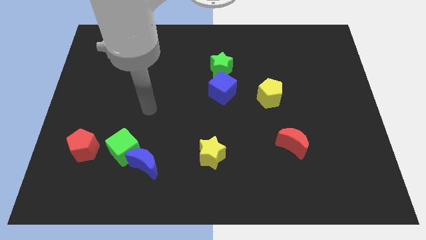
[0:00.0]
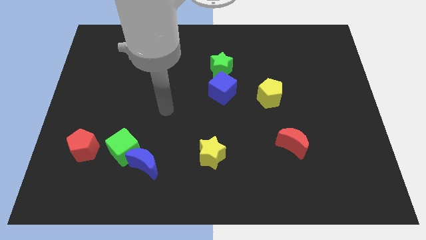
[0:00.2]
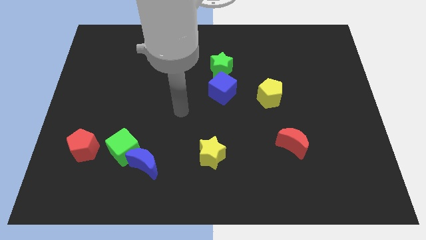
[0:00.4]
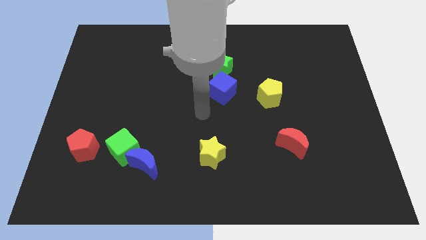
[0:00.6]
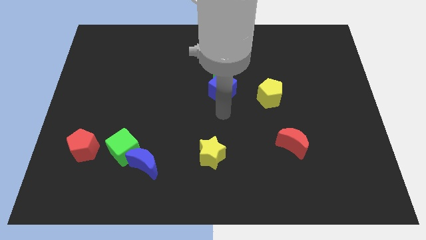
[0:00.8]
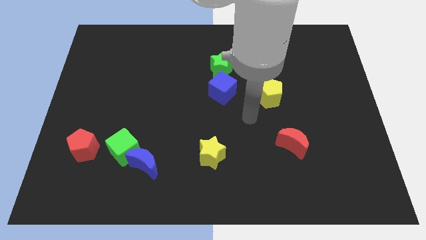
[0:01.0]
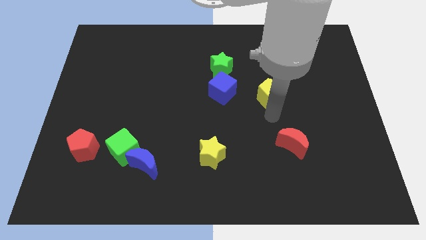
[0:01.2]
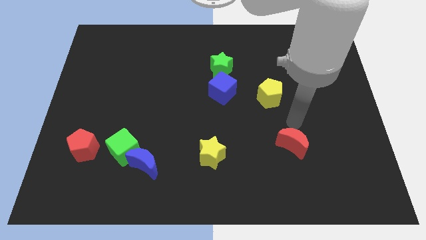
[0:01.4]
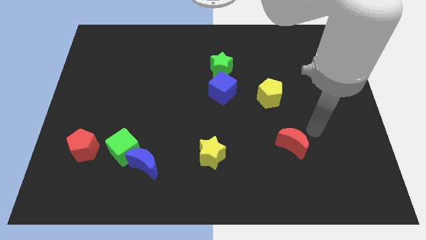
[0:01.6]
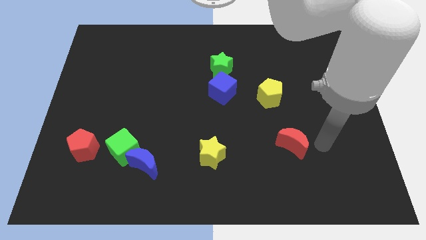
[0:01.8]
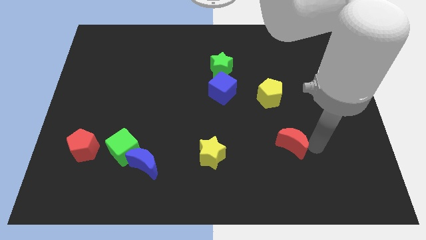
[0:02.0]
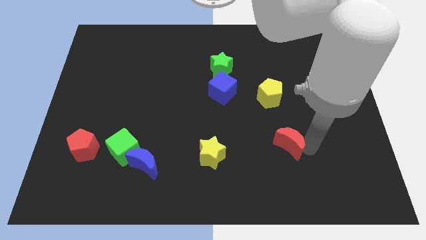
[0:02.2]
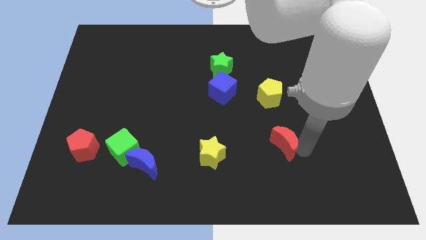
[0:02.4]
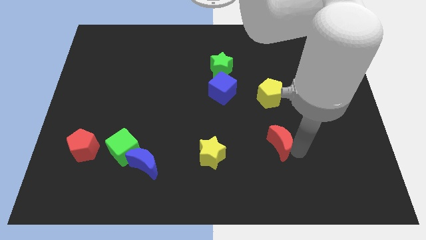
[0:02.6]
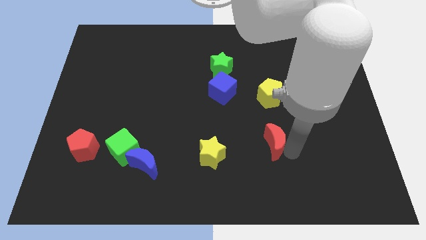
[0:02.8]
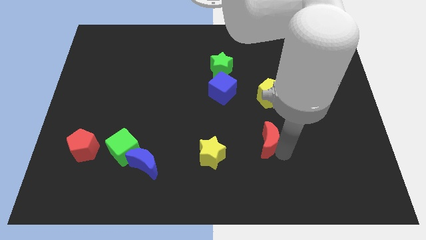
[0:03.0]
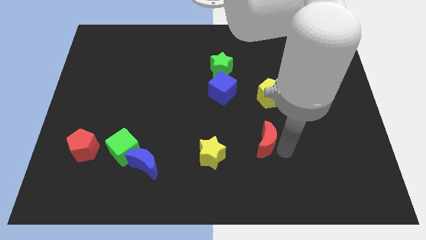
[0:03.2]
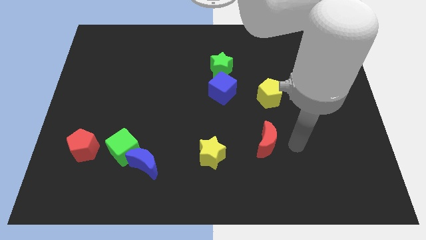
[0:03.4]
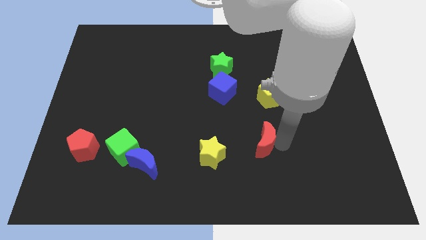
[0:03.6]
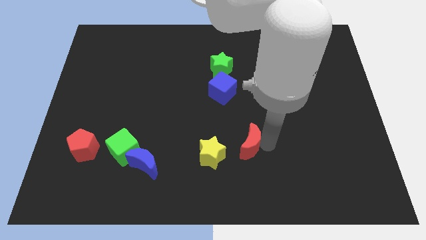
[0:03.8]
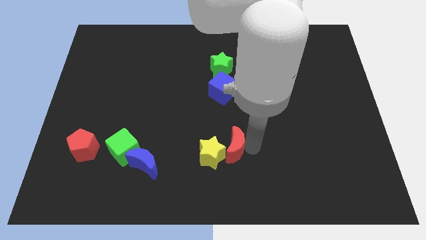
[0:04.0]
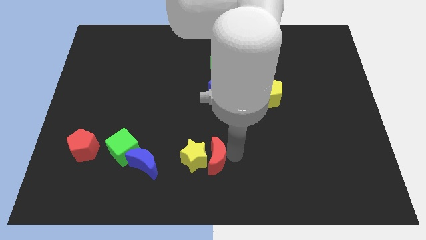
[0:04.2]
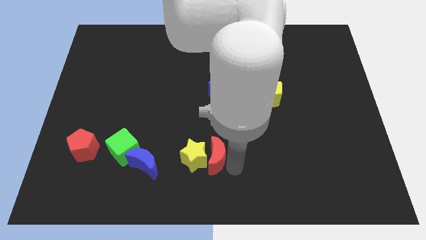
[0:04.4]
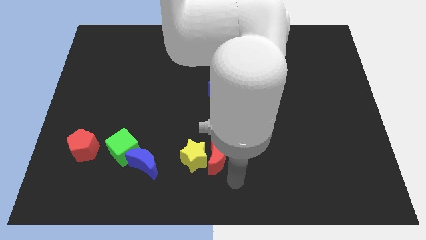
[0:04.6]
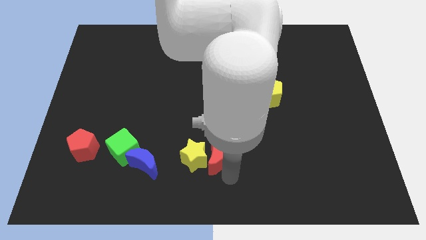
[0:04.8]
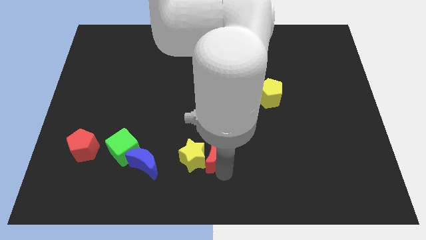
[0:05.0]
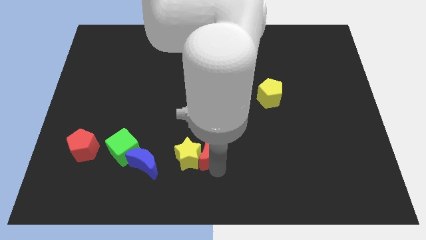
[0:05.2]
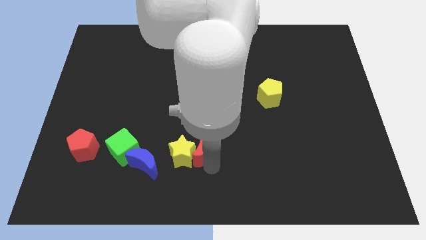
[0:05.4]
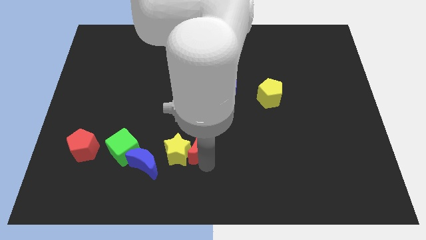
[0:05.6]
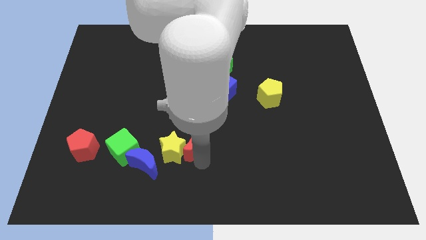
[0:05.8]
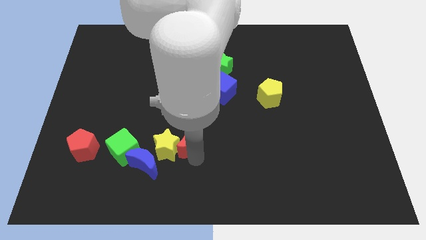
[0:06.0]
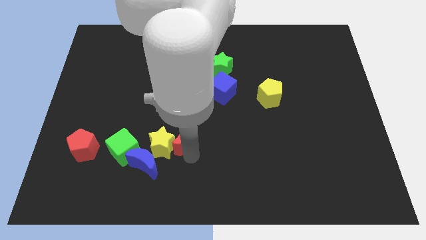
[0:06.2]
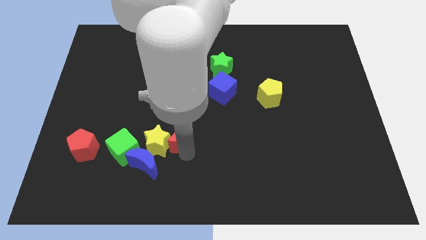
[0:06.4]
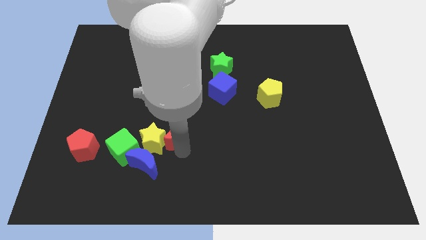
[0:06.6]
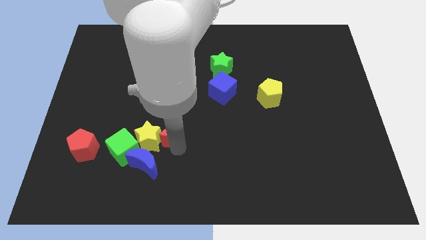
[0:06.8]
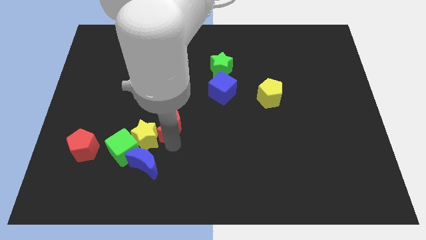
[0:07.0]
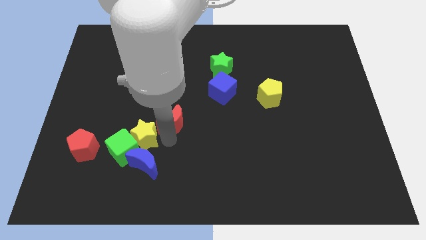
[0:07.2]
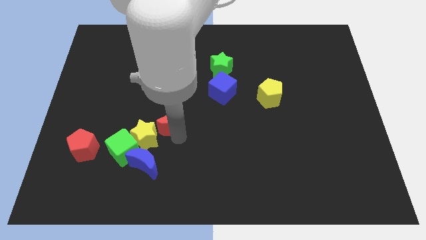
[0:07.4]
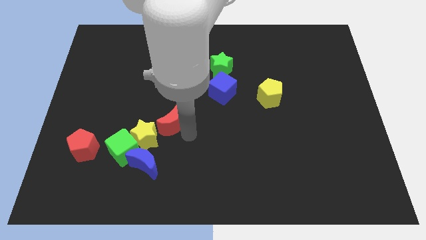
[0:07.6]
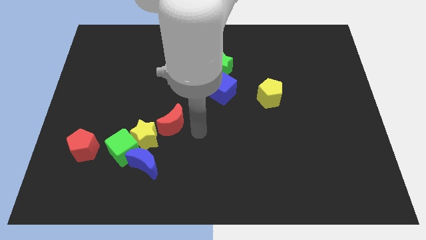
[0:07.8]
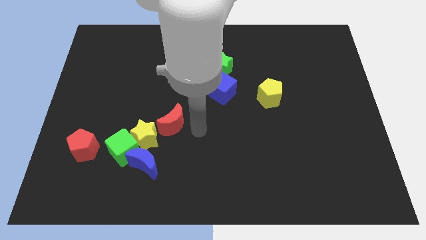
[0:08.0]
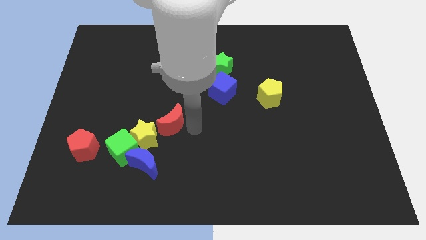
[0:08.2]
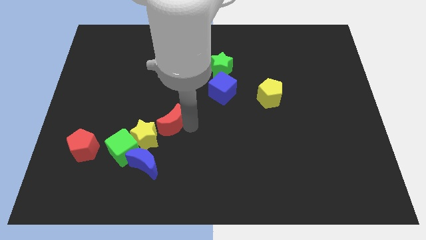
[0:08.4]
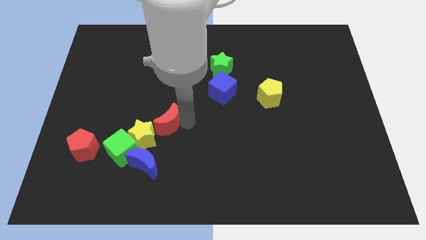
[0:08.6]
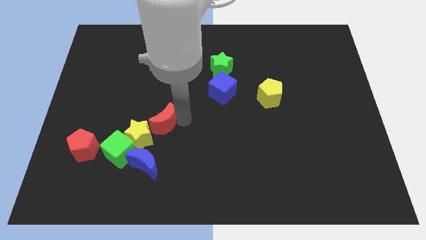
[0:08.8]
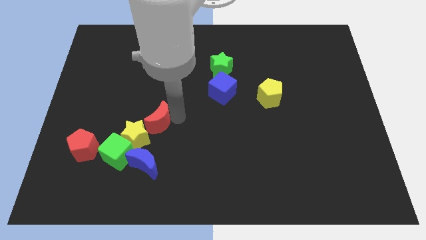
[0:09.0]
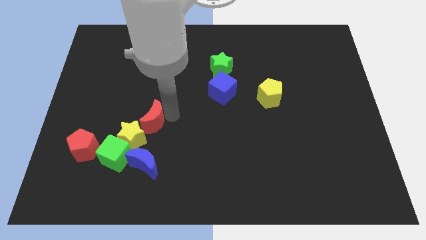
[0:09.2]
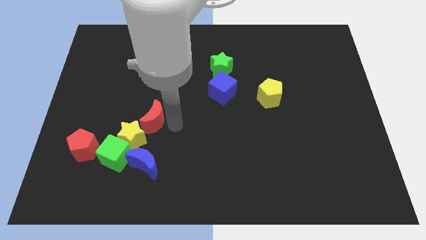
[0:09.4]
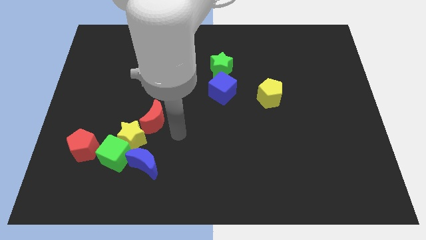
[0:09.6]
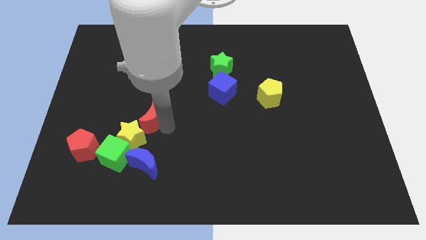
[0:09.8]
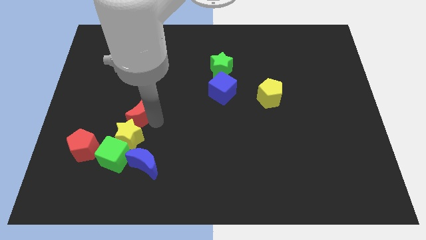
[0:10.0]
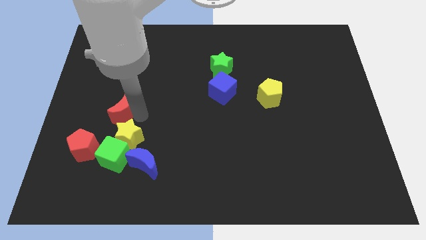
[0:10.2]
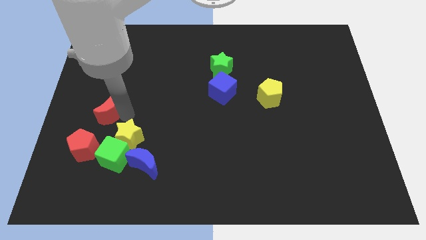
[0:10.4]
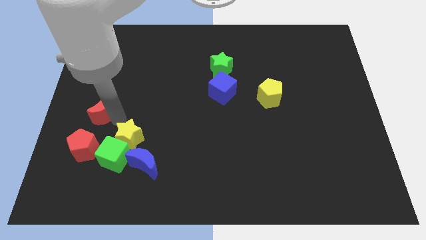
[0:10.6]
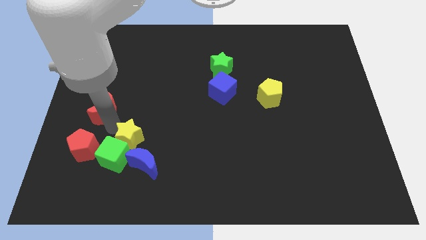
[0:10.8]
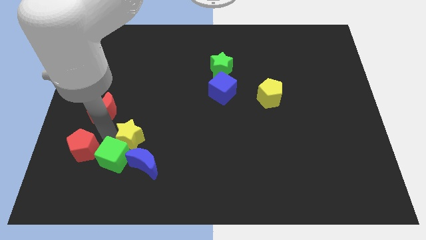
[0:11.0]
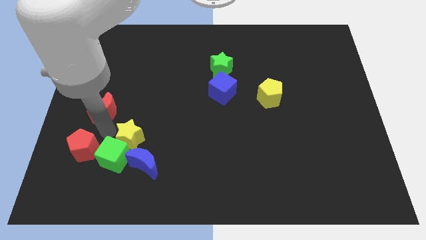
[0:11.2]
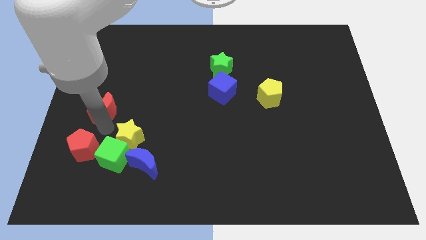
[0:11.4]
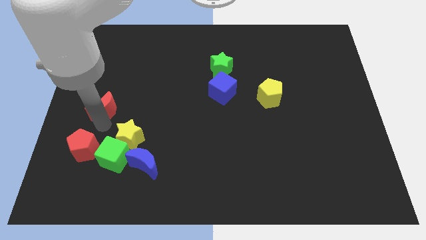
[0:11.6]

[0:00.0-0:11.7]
move the red moon to the center left

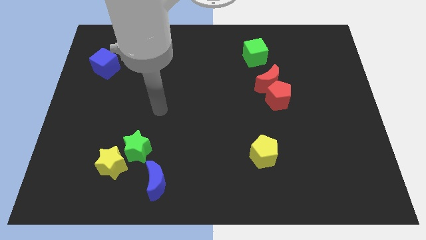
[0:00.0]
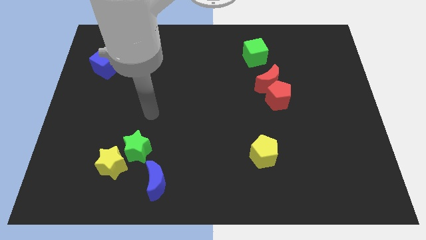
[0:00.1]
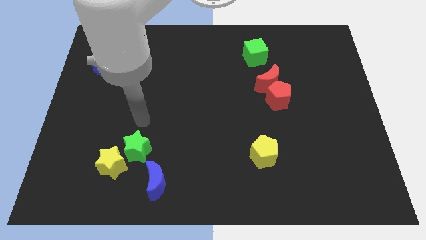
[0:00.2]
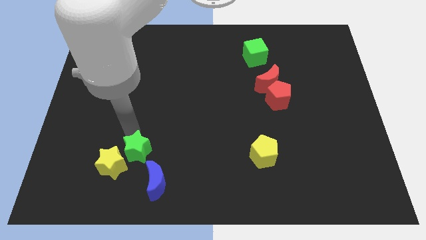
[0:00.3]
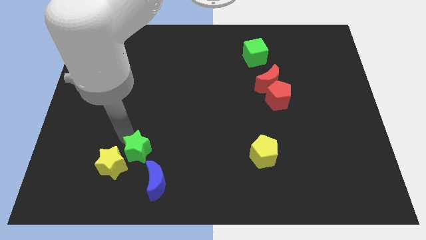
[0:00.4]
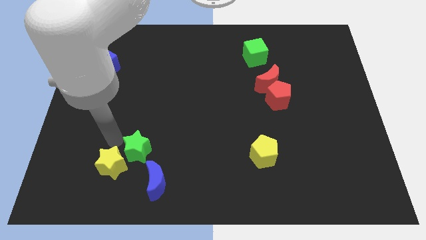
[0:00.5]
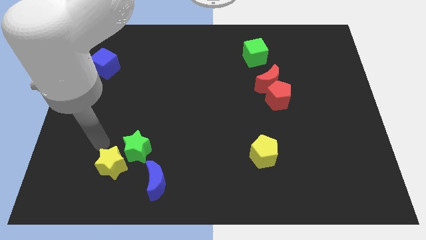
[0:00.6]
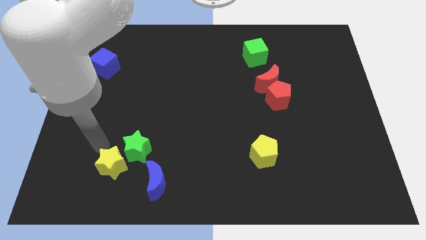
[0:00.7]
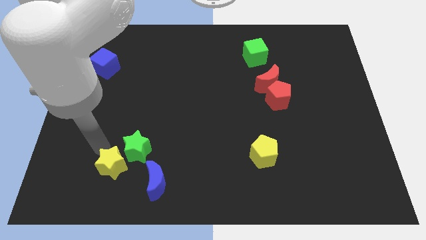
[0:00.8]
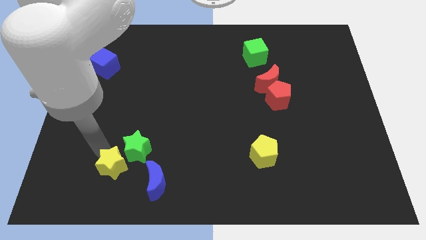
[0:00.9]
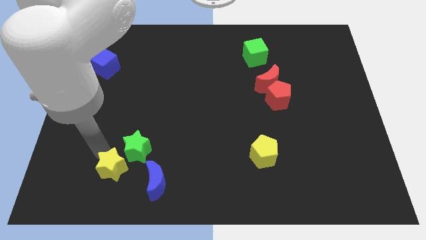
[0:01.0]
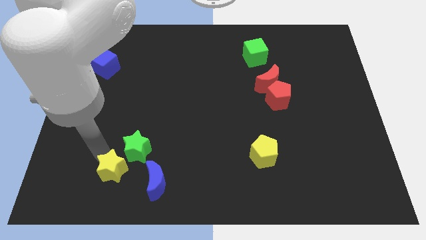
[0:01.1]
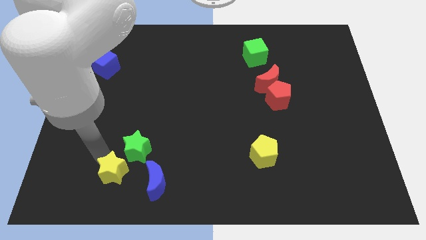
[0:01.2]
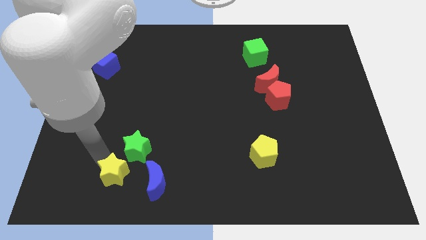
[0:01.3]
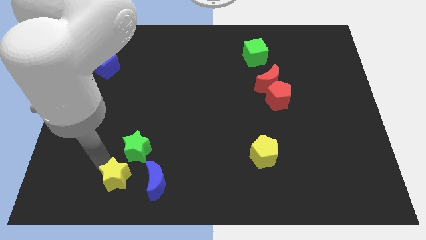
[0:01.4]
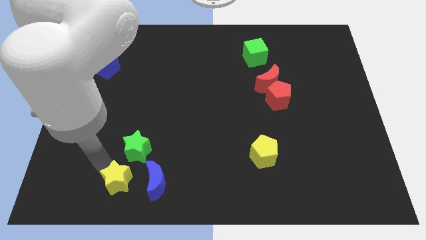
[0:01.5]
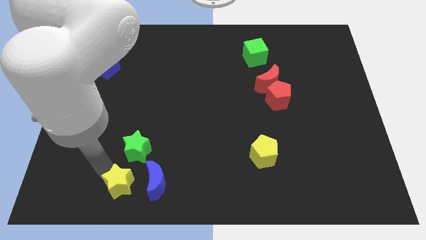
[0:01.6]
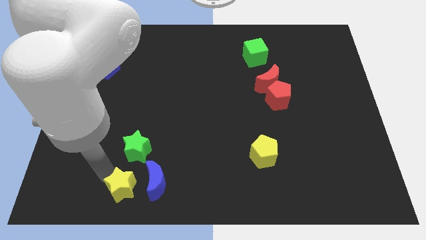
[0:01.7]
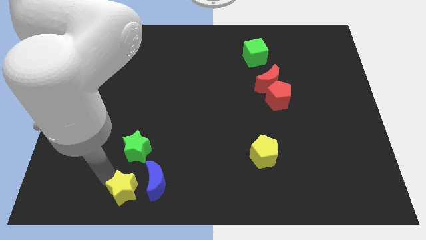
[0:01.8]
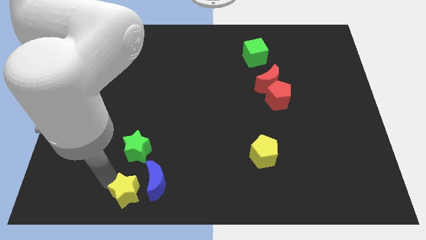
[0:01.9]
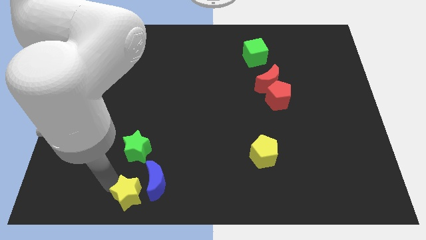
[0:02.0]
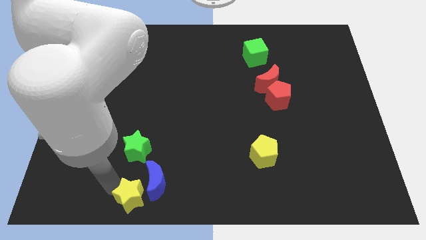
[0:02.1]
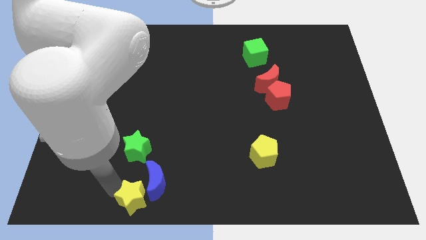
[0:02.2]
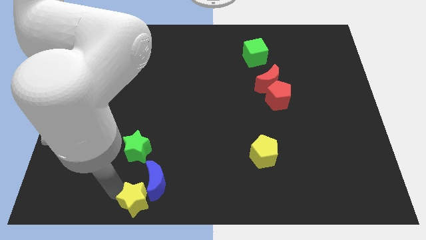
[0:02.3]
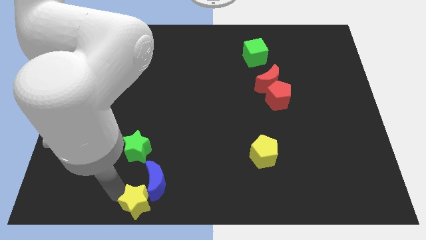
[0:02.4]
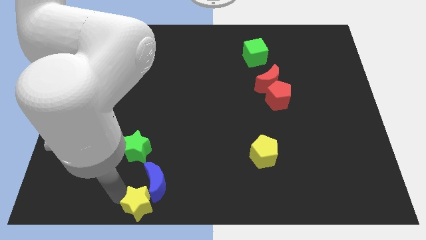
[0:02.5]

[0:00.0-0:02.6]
slide the yellow star to the bottom side
